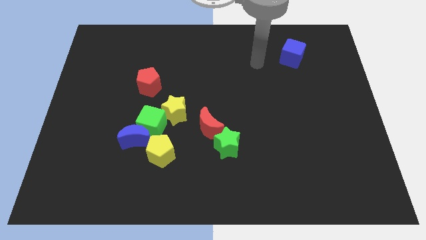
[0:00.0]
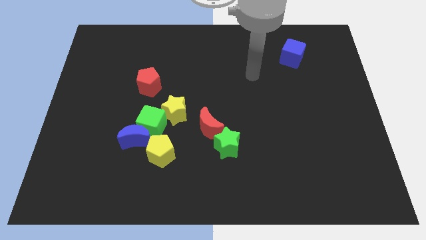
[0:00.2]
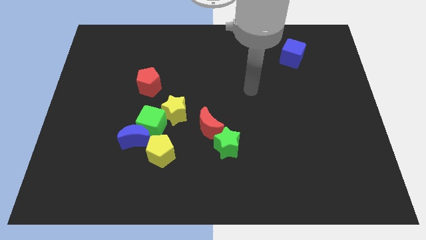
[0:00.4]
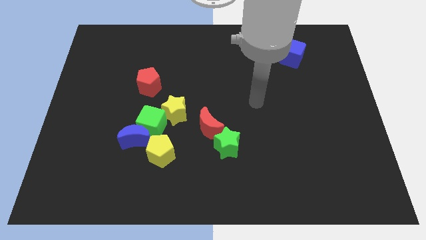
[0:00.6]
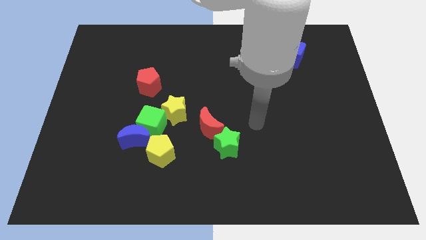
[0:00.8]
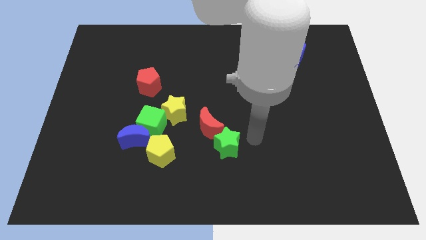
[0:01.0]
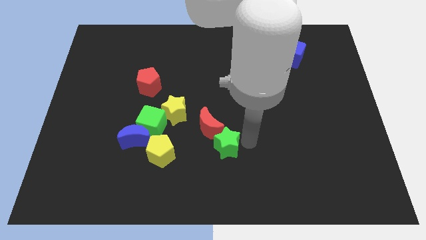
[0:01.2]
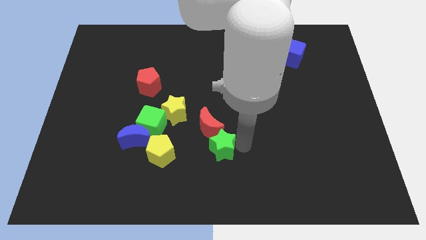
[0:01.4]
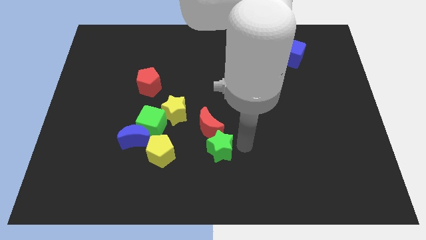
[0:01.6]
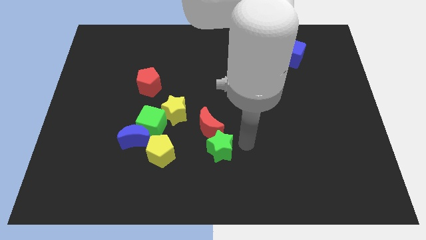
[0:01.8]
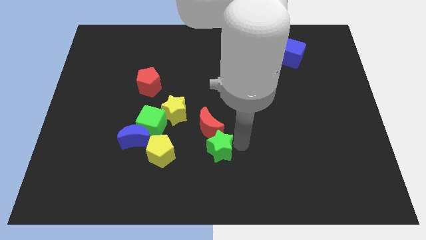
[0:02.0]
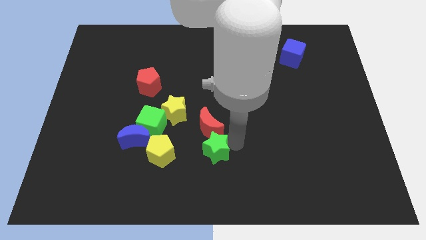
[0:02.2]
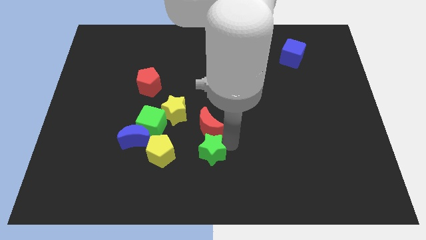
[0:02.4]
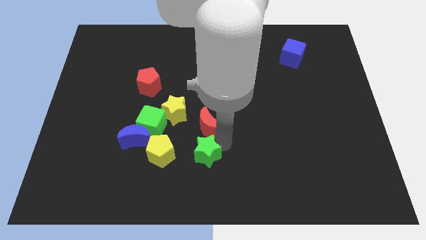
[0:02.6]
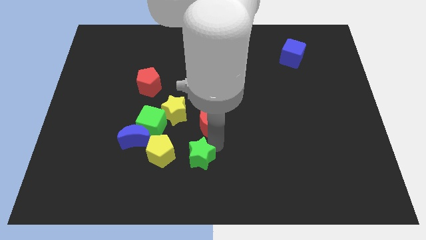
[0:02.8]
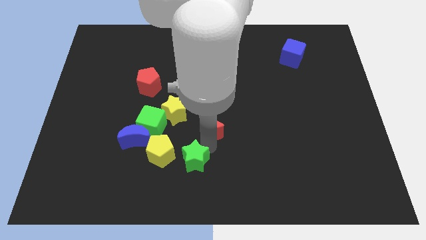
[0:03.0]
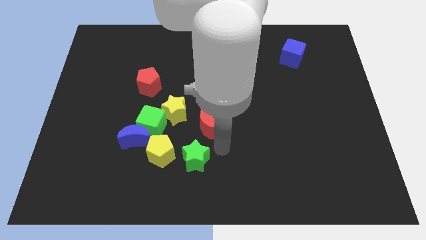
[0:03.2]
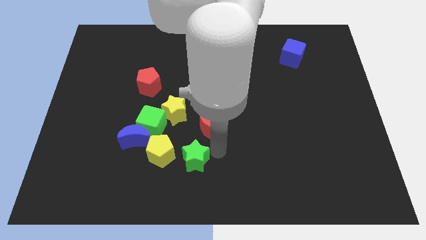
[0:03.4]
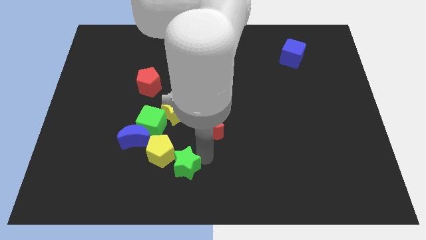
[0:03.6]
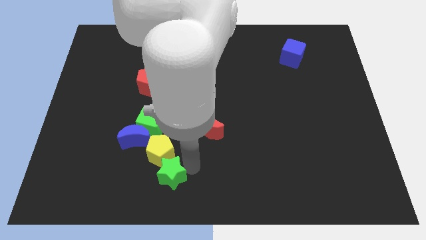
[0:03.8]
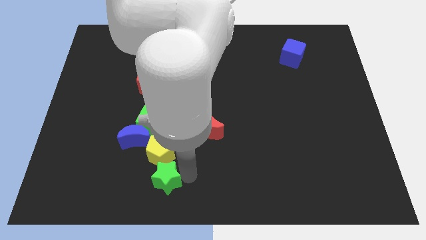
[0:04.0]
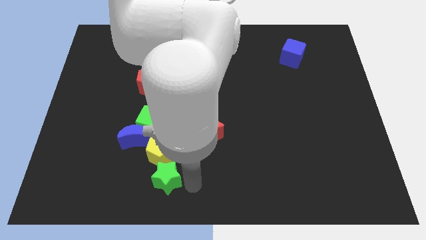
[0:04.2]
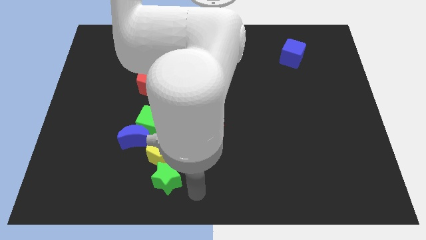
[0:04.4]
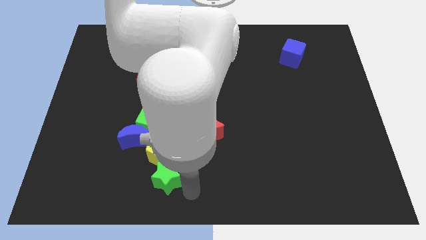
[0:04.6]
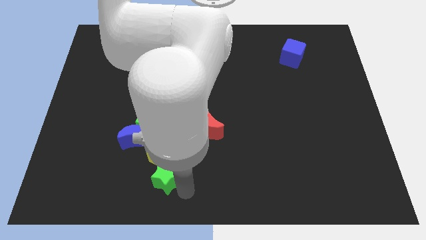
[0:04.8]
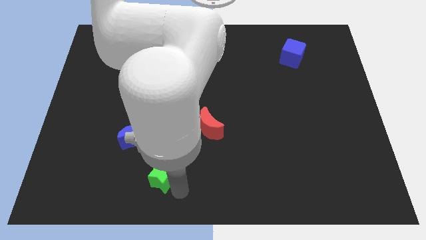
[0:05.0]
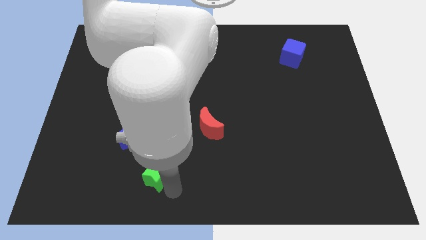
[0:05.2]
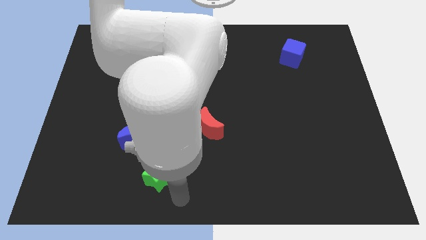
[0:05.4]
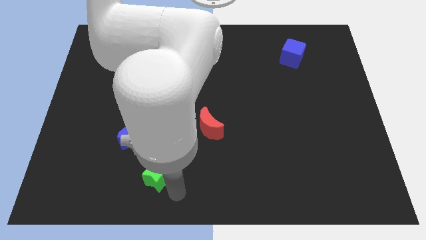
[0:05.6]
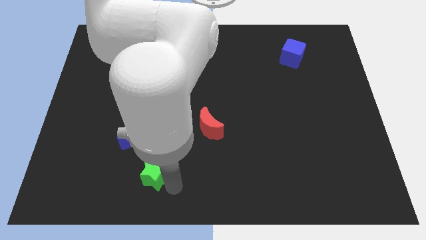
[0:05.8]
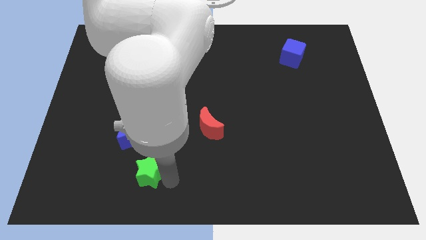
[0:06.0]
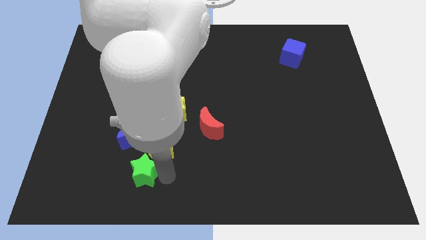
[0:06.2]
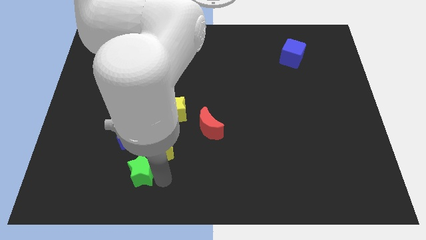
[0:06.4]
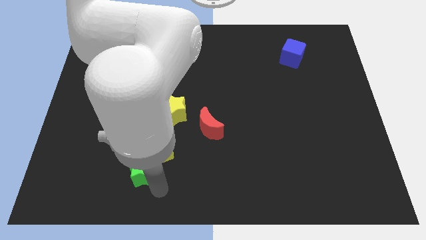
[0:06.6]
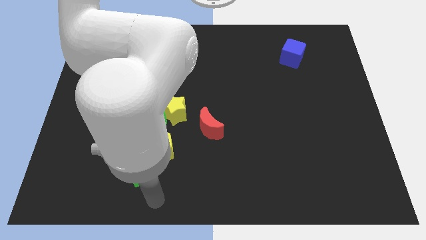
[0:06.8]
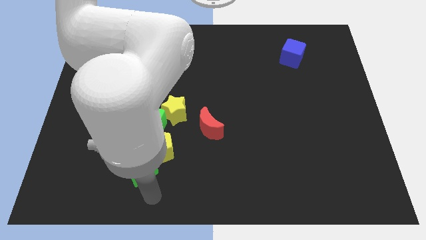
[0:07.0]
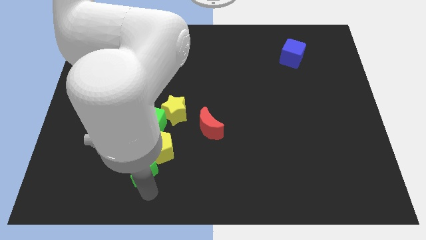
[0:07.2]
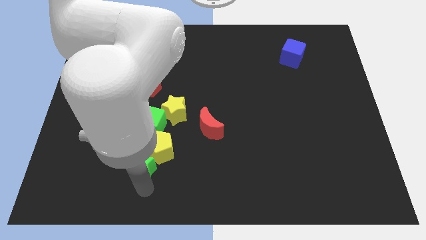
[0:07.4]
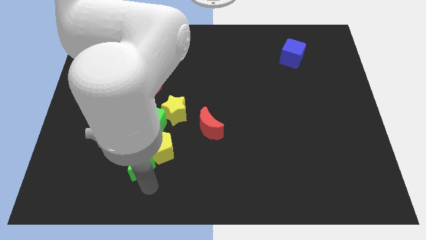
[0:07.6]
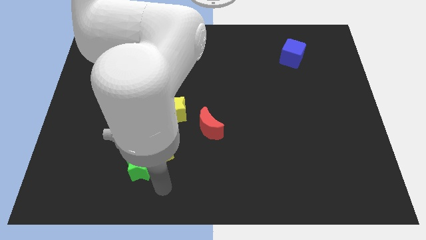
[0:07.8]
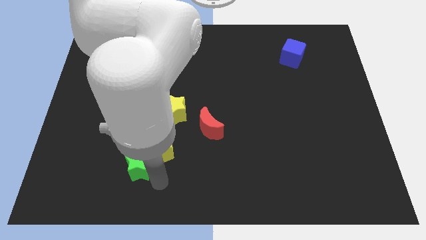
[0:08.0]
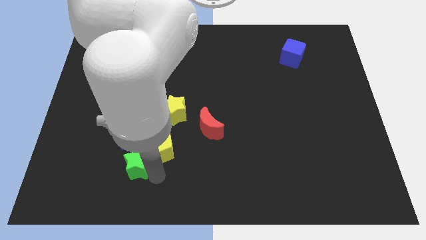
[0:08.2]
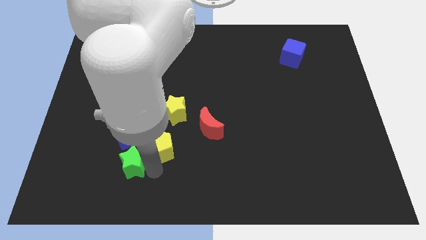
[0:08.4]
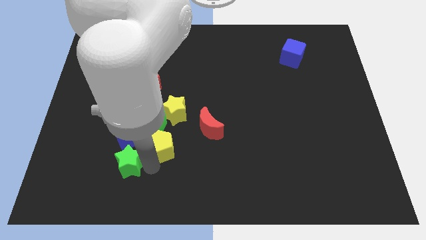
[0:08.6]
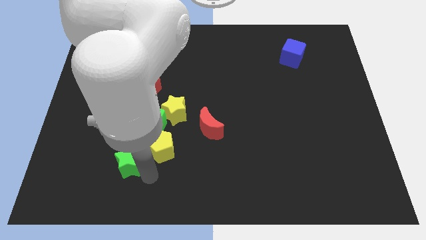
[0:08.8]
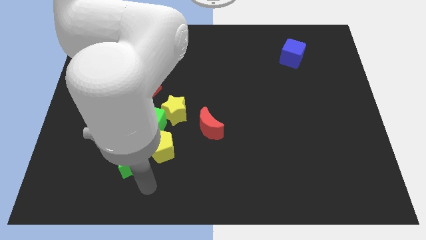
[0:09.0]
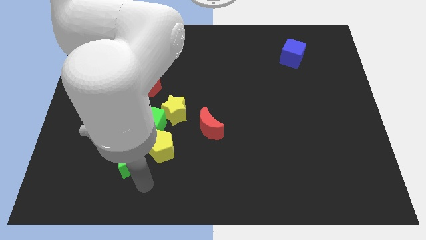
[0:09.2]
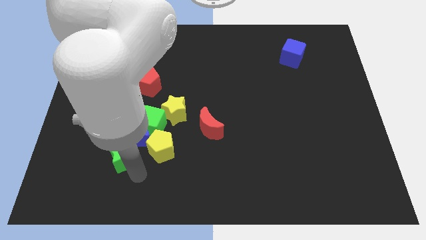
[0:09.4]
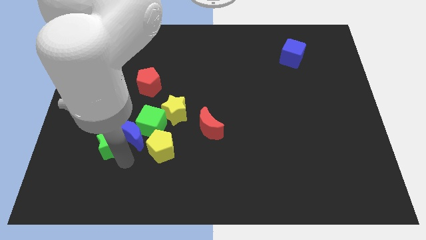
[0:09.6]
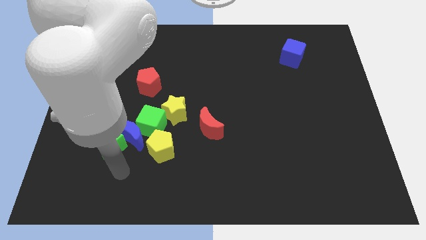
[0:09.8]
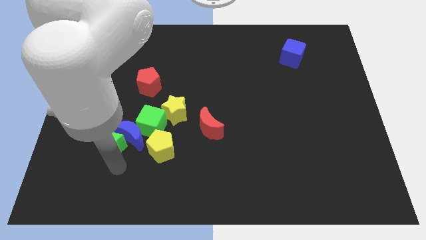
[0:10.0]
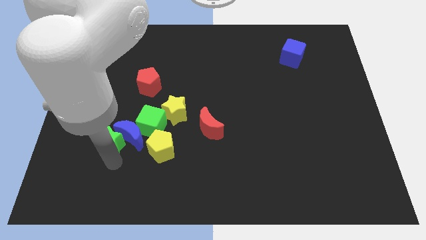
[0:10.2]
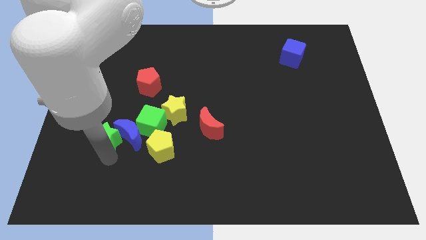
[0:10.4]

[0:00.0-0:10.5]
move the green star to the left of the green cube

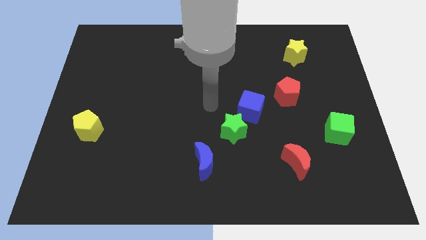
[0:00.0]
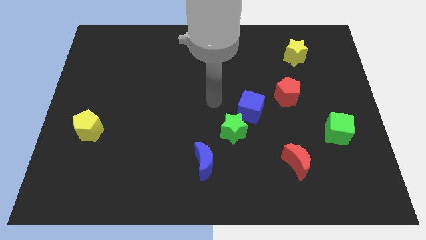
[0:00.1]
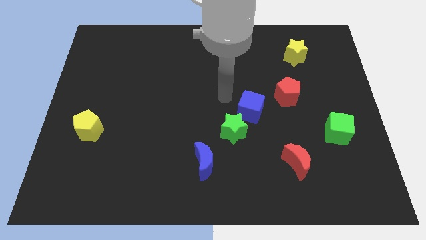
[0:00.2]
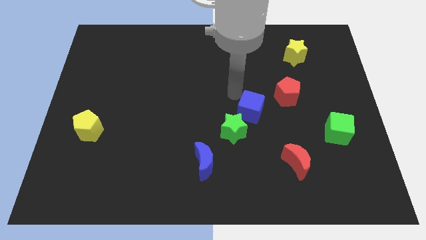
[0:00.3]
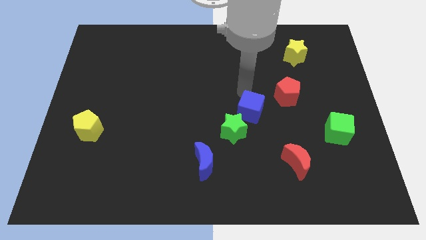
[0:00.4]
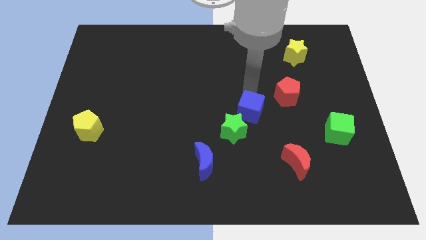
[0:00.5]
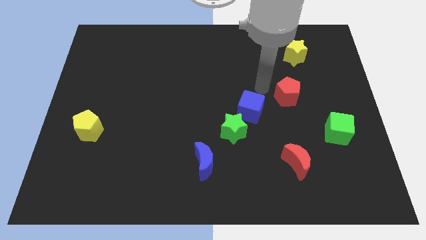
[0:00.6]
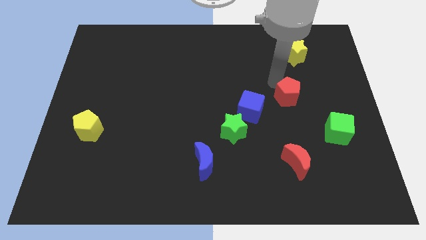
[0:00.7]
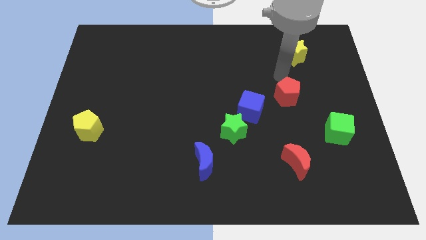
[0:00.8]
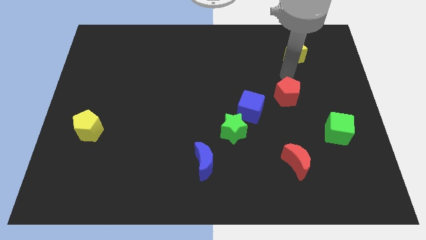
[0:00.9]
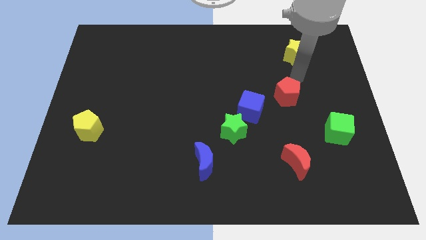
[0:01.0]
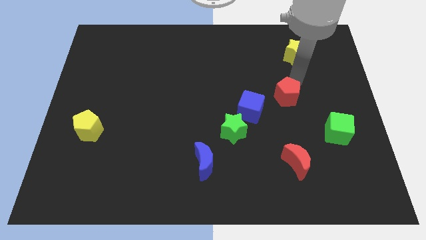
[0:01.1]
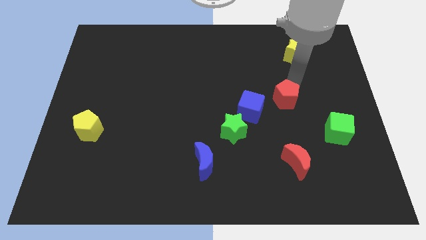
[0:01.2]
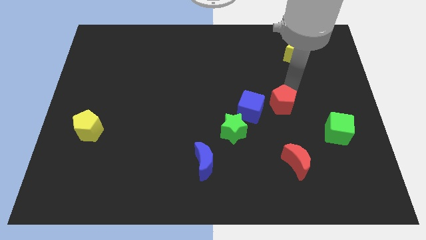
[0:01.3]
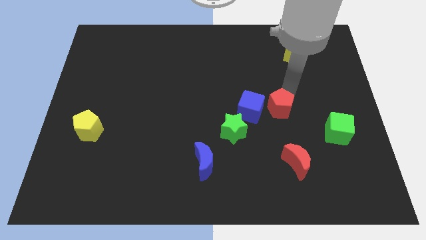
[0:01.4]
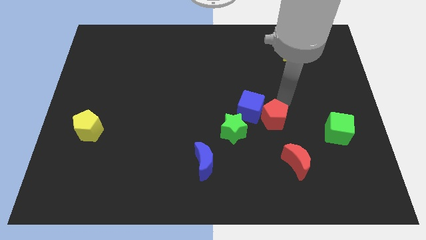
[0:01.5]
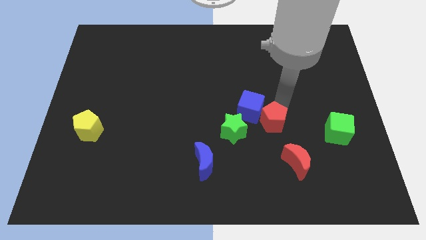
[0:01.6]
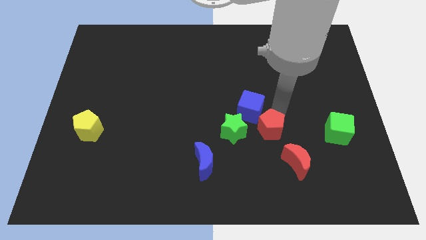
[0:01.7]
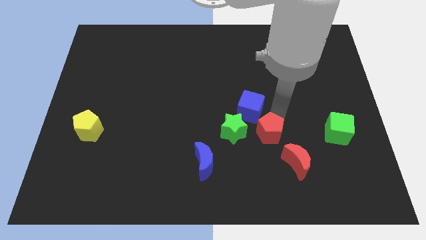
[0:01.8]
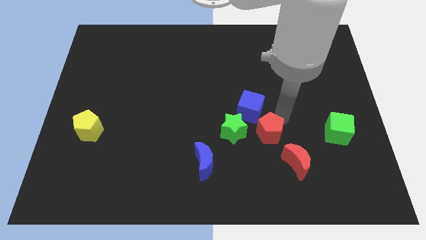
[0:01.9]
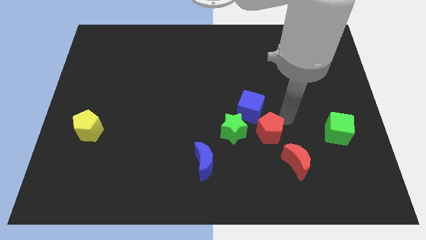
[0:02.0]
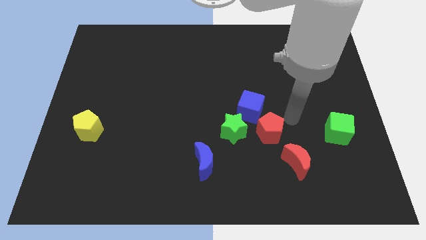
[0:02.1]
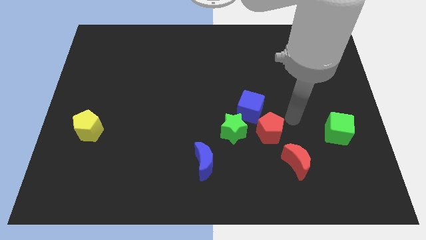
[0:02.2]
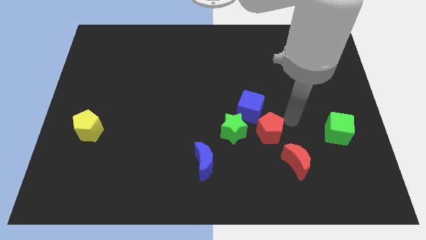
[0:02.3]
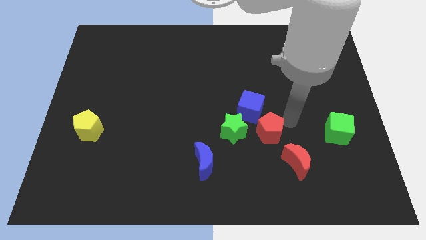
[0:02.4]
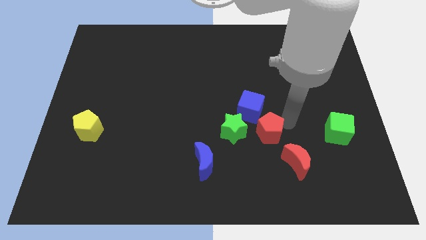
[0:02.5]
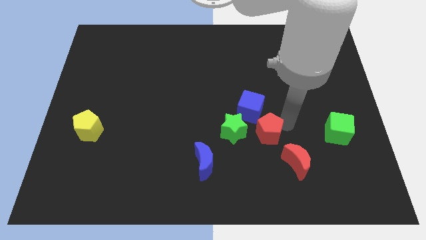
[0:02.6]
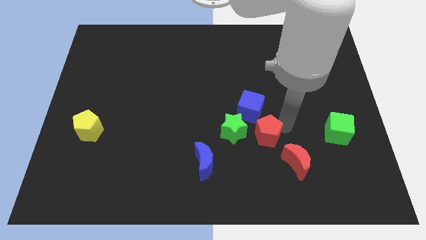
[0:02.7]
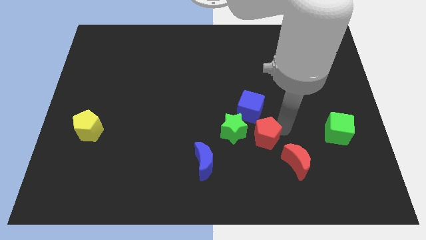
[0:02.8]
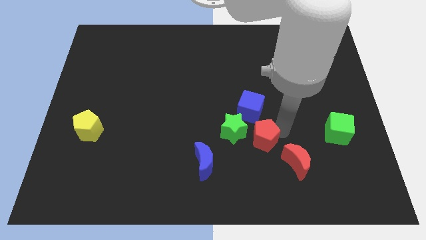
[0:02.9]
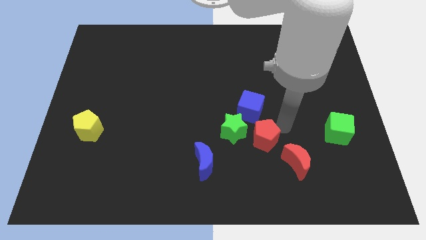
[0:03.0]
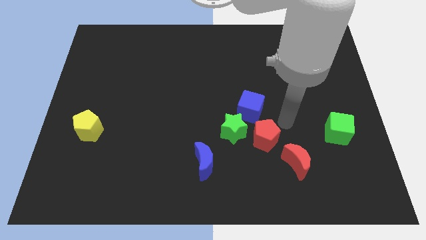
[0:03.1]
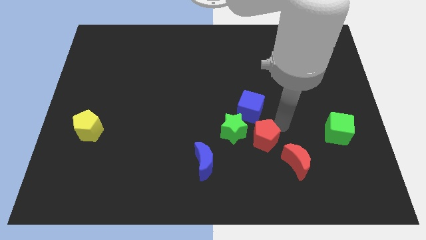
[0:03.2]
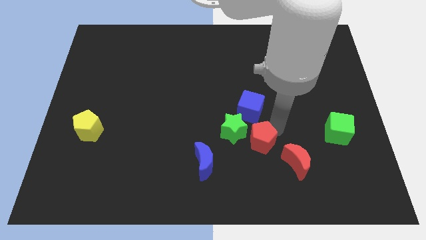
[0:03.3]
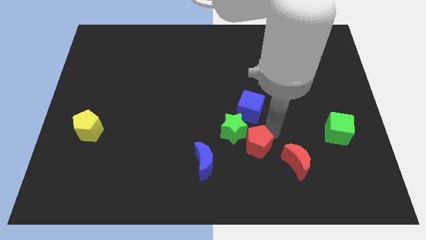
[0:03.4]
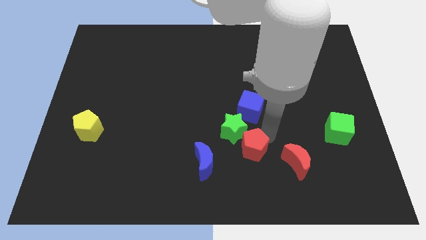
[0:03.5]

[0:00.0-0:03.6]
put the red pentagon below the green star
